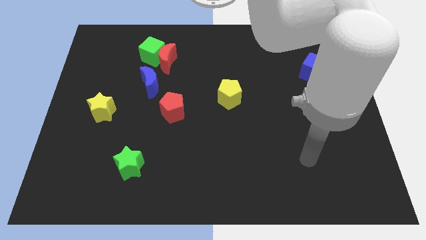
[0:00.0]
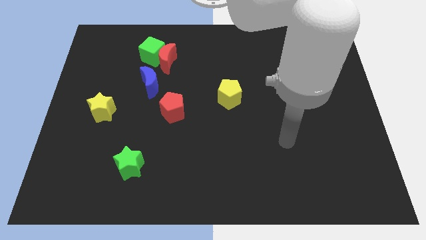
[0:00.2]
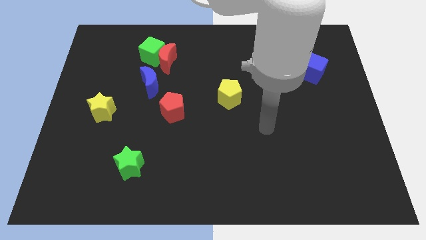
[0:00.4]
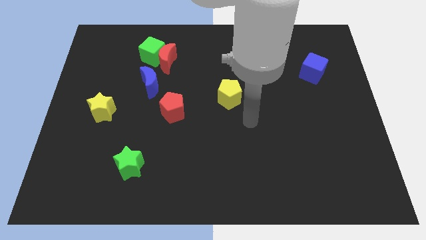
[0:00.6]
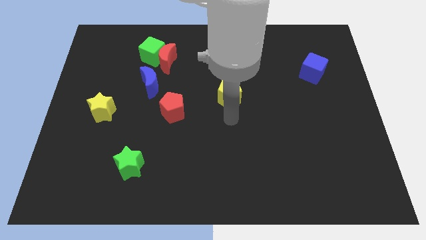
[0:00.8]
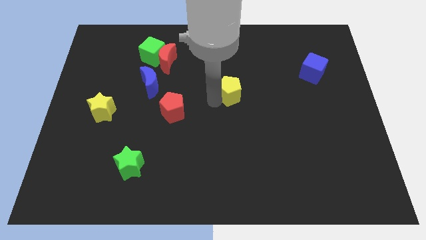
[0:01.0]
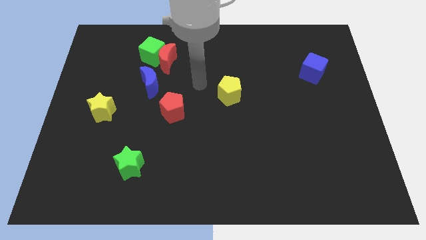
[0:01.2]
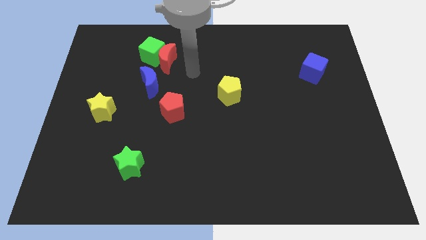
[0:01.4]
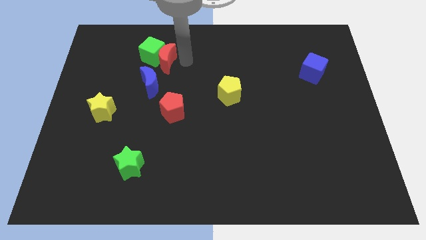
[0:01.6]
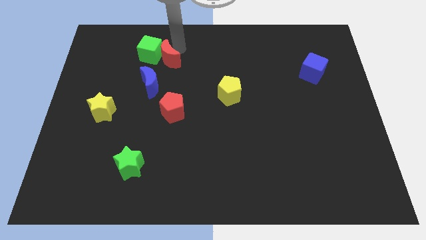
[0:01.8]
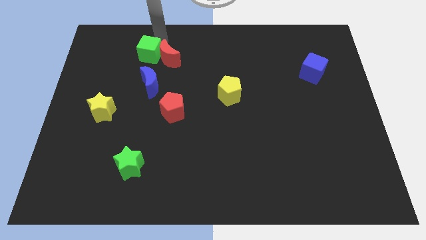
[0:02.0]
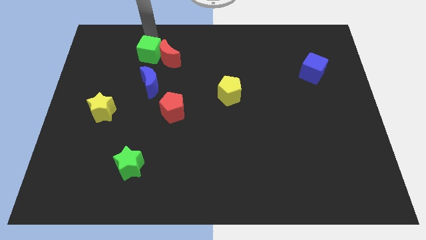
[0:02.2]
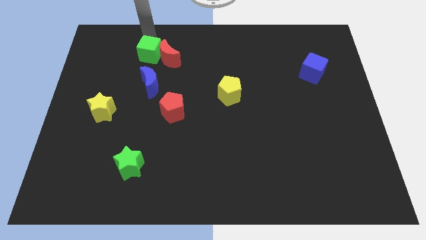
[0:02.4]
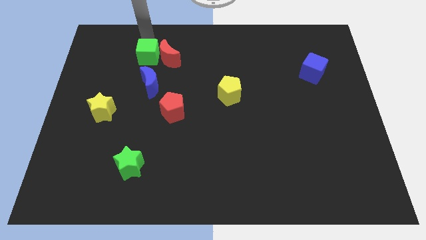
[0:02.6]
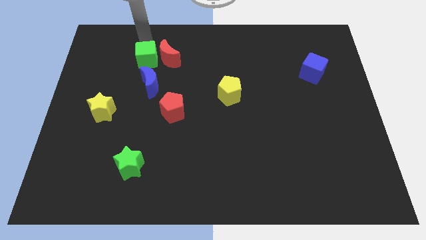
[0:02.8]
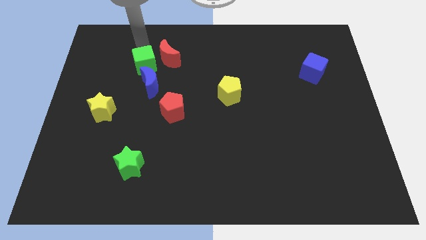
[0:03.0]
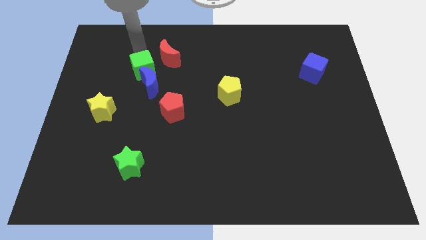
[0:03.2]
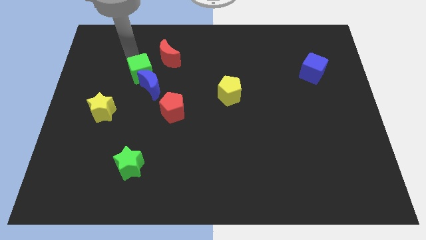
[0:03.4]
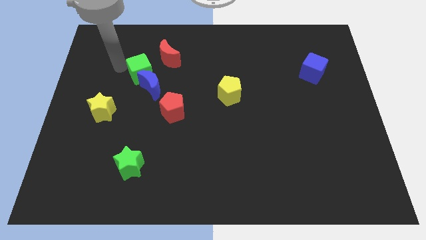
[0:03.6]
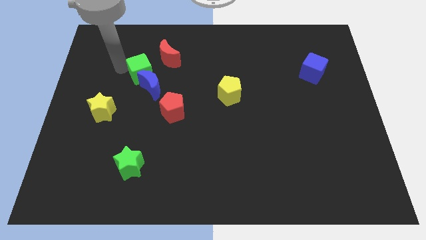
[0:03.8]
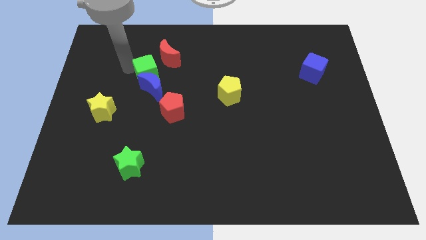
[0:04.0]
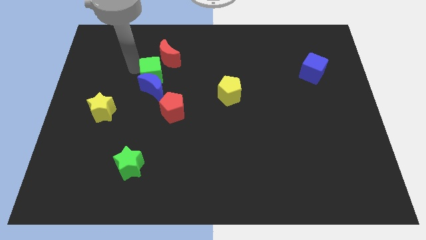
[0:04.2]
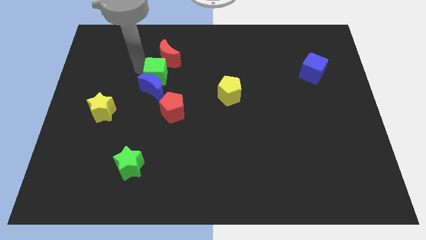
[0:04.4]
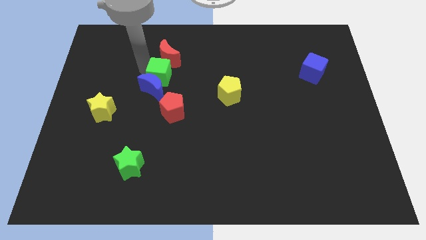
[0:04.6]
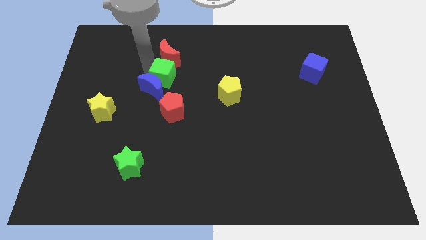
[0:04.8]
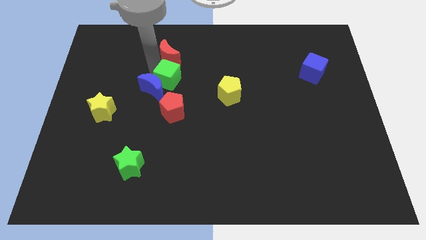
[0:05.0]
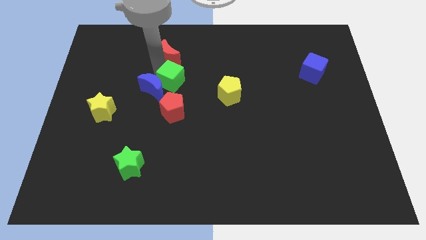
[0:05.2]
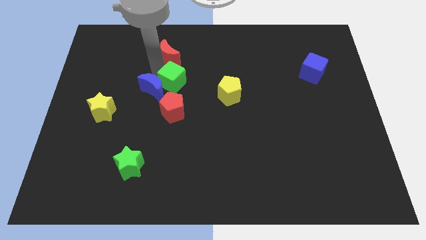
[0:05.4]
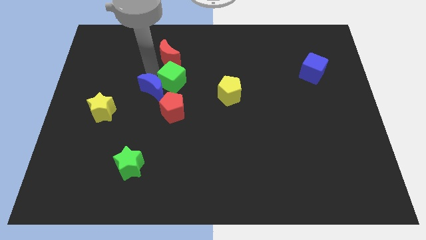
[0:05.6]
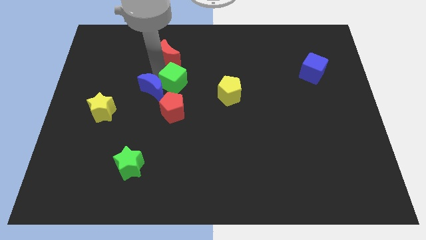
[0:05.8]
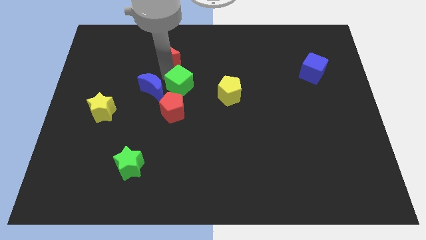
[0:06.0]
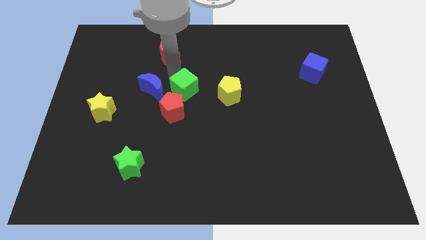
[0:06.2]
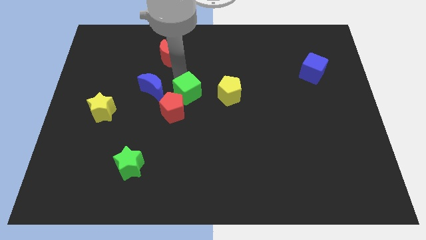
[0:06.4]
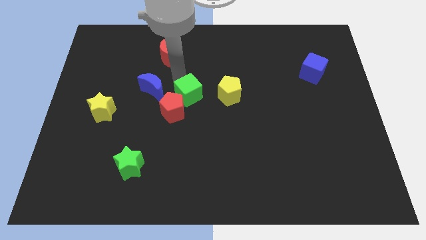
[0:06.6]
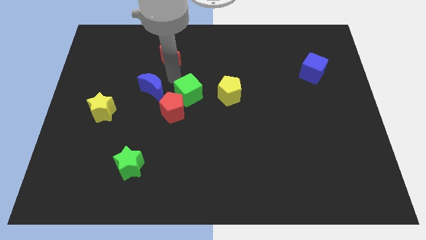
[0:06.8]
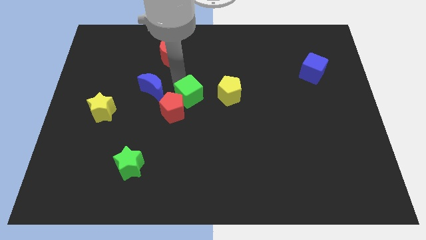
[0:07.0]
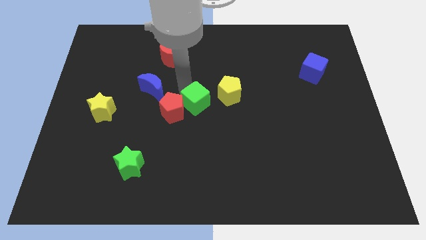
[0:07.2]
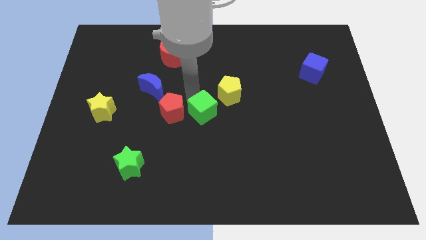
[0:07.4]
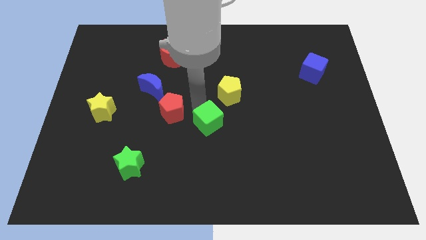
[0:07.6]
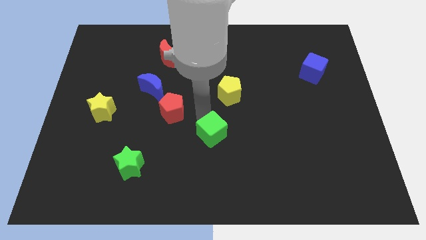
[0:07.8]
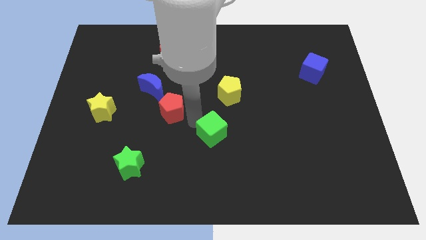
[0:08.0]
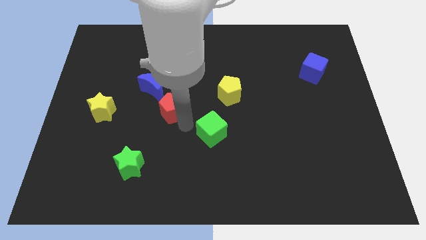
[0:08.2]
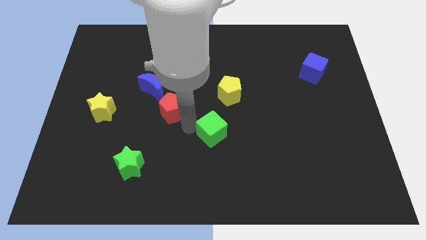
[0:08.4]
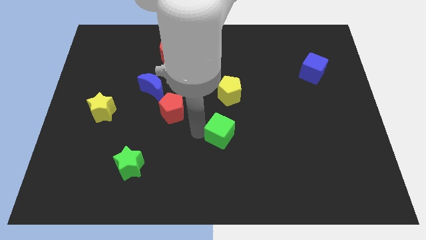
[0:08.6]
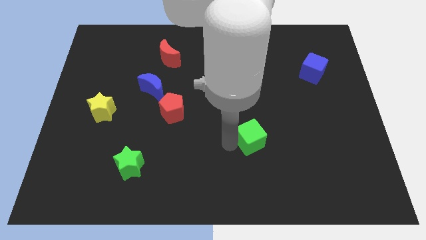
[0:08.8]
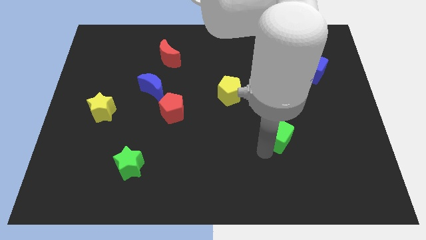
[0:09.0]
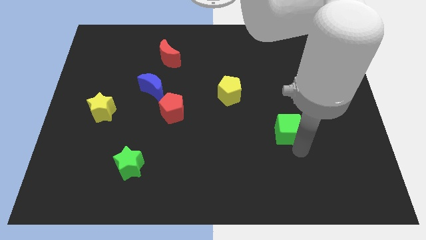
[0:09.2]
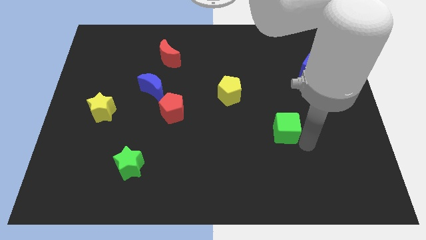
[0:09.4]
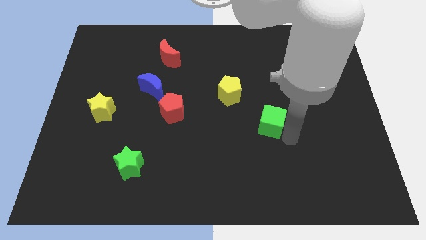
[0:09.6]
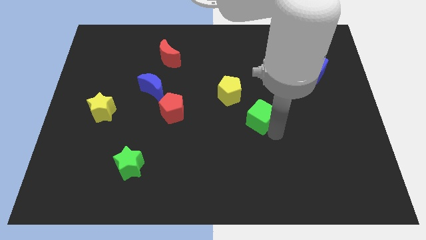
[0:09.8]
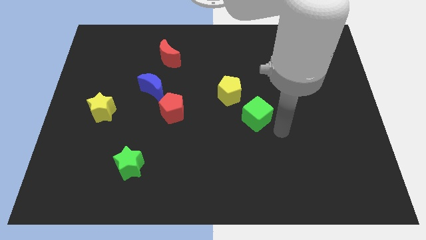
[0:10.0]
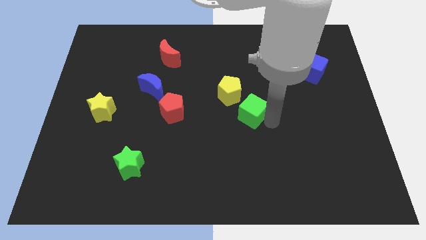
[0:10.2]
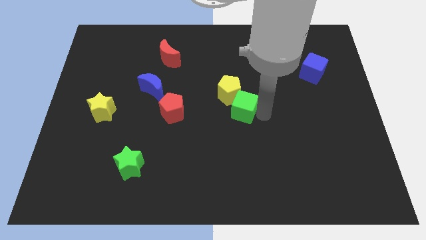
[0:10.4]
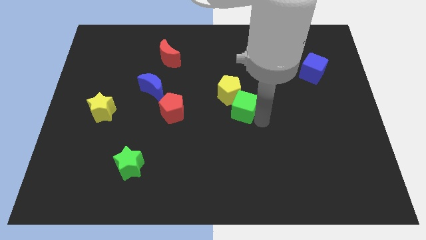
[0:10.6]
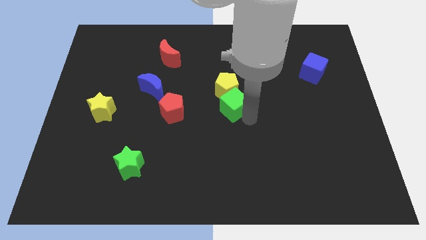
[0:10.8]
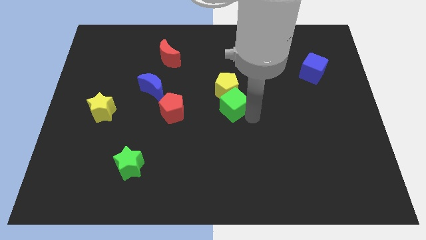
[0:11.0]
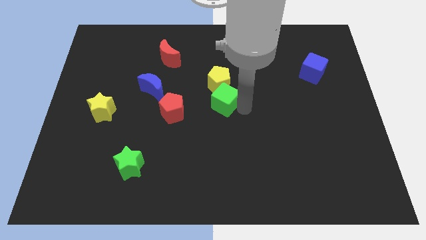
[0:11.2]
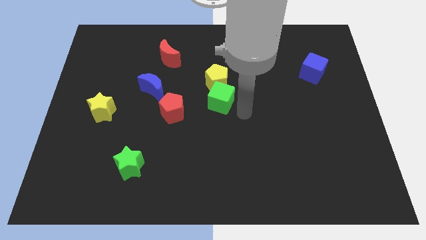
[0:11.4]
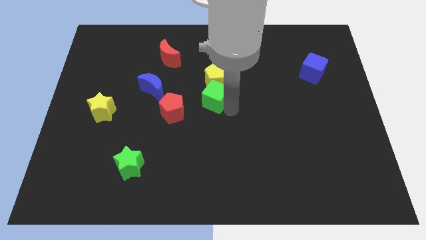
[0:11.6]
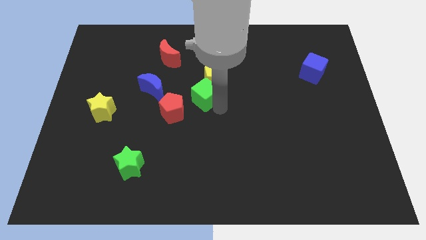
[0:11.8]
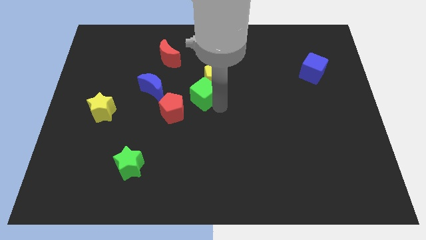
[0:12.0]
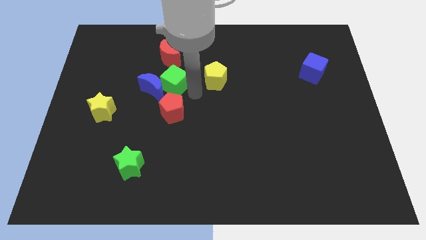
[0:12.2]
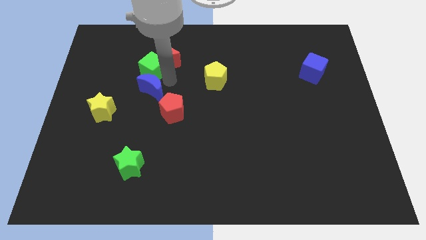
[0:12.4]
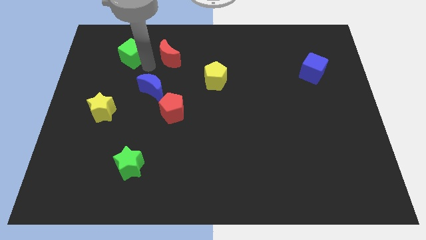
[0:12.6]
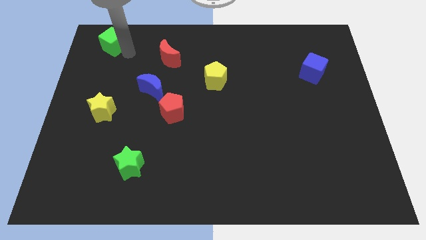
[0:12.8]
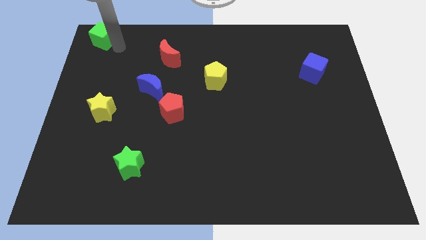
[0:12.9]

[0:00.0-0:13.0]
push the green cube to the top left corner
